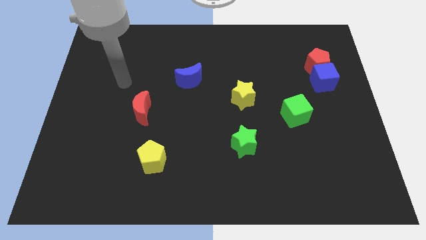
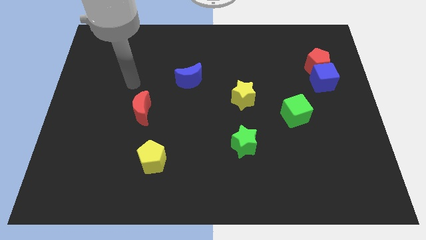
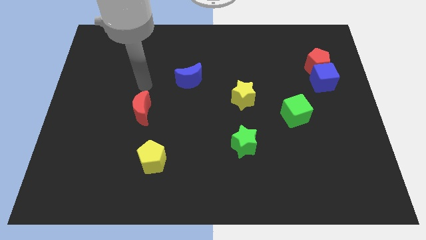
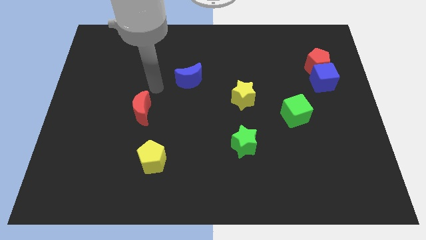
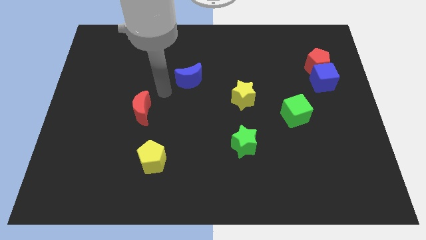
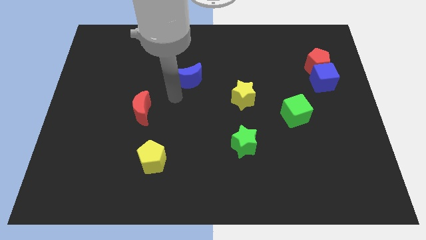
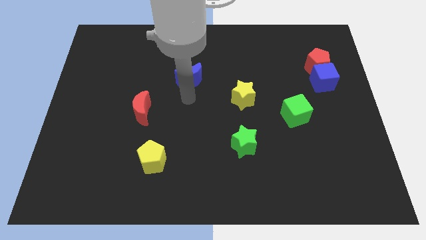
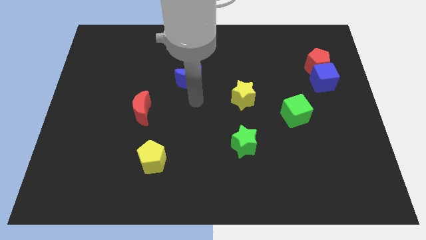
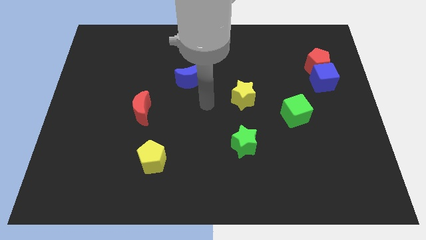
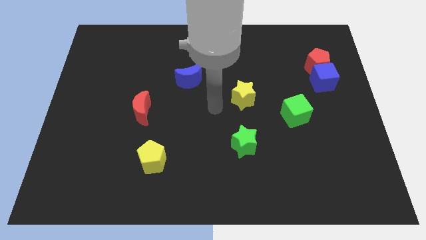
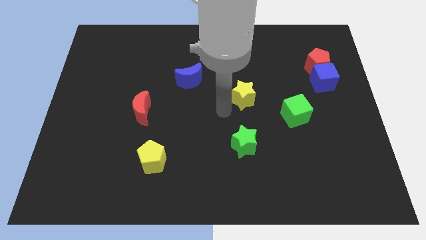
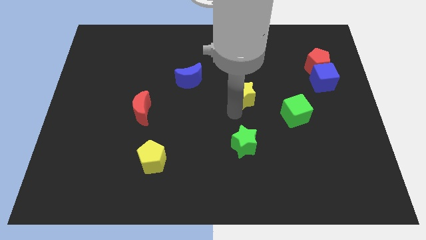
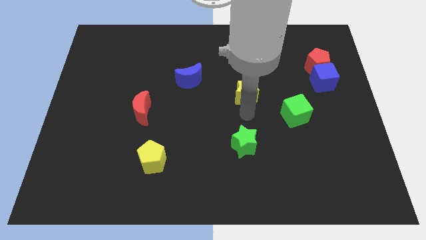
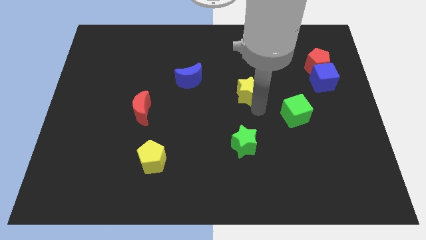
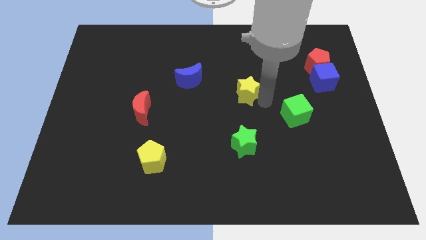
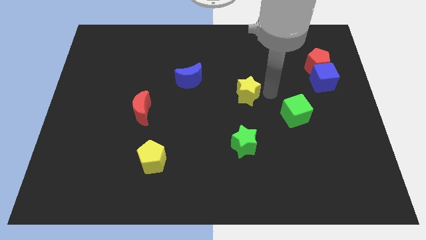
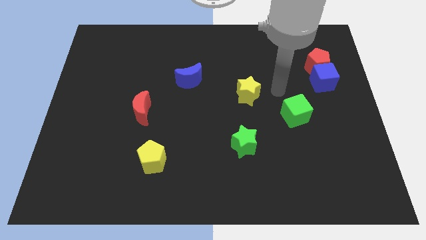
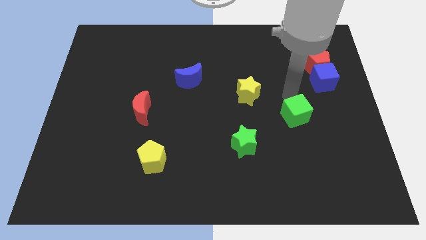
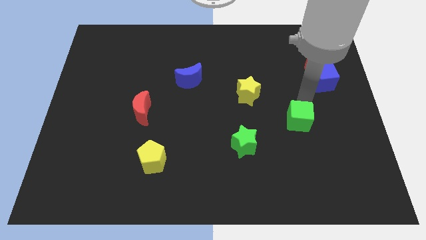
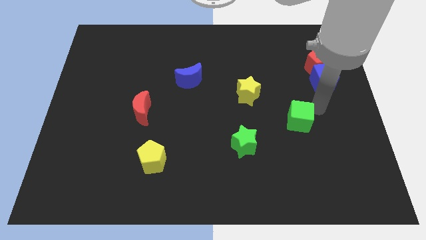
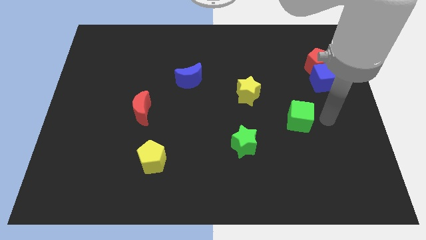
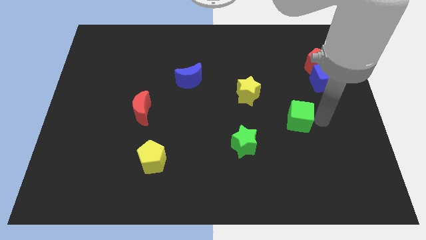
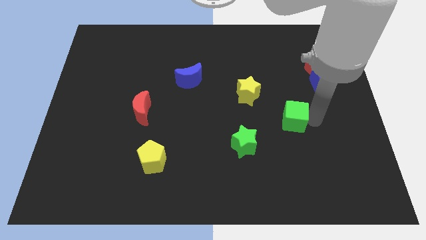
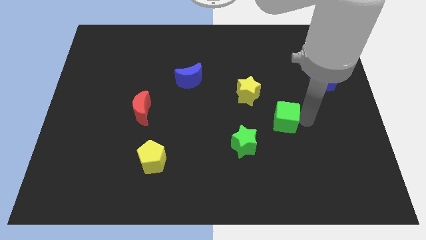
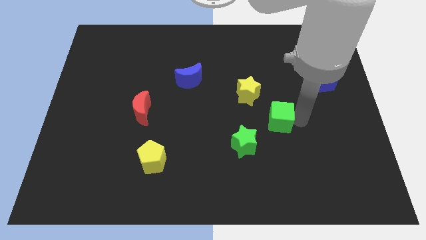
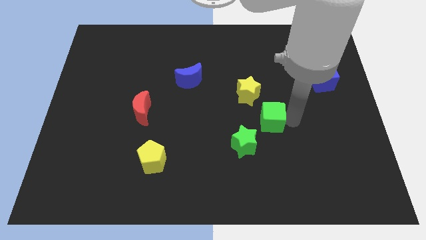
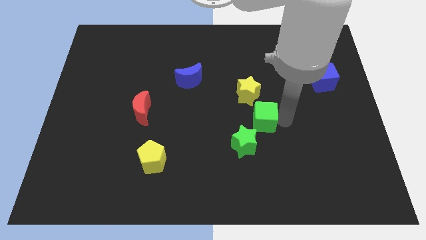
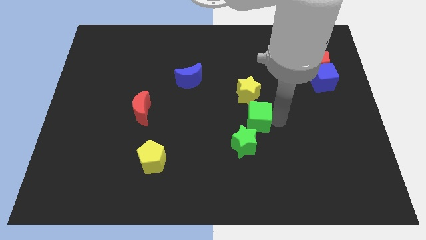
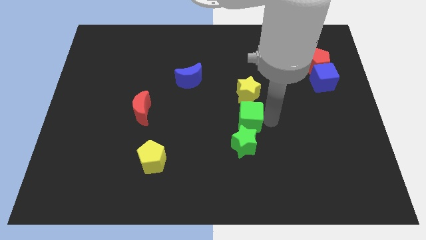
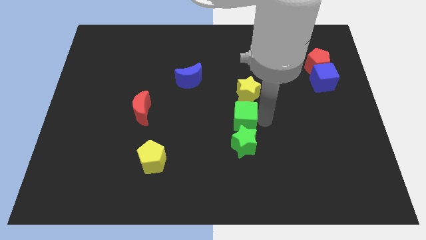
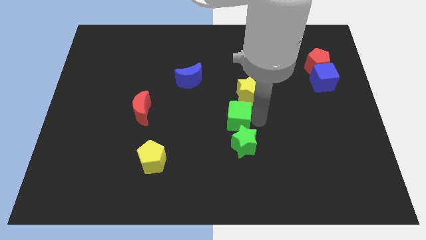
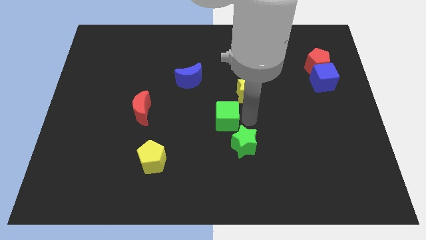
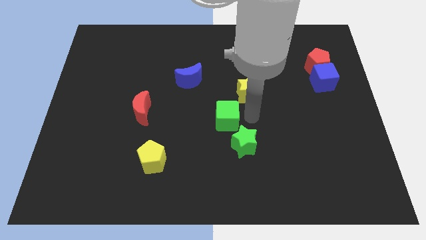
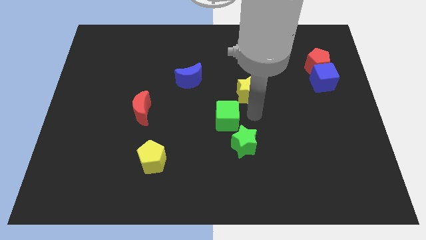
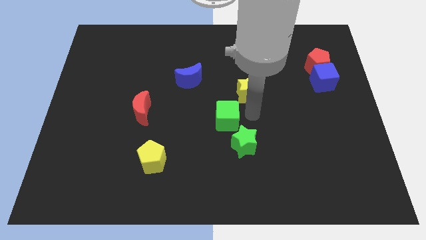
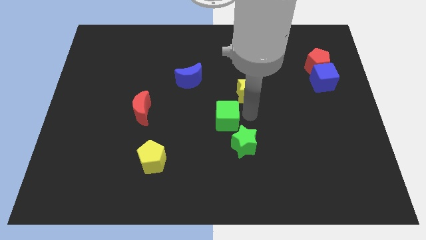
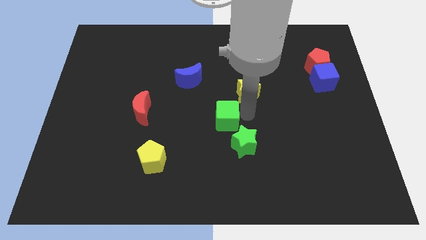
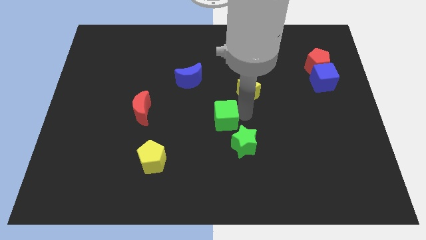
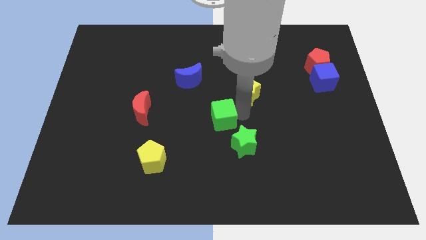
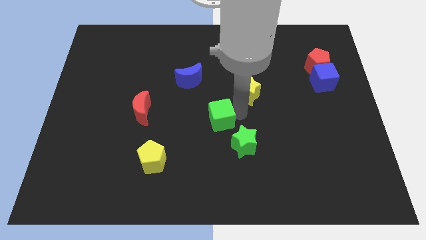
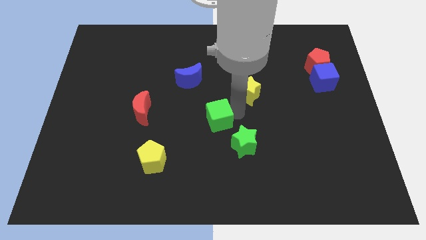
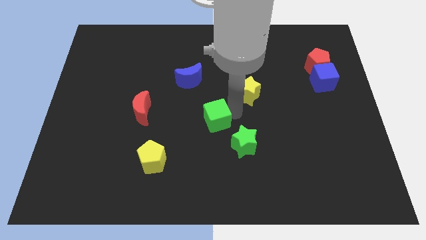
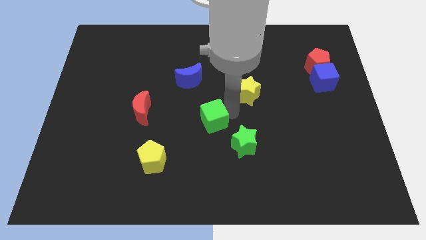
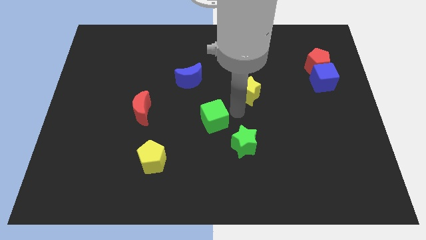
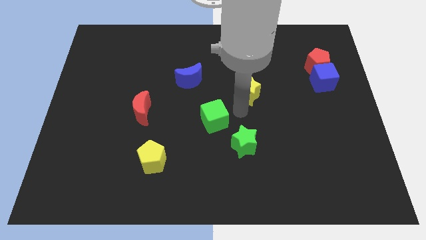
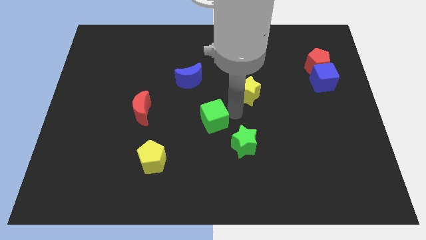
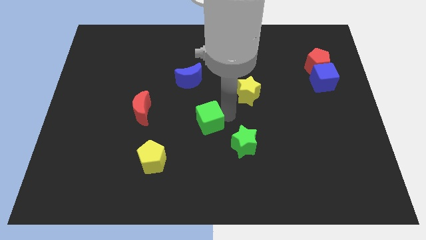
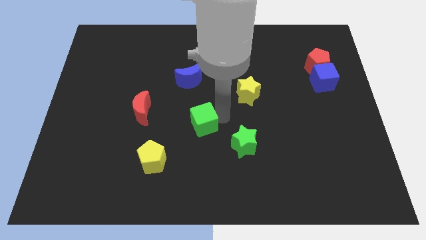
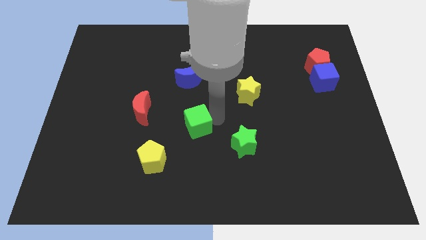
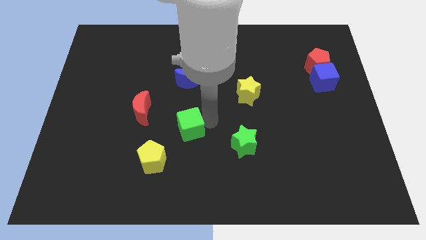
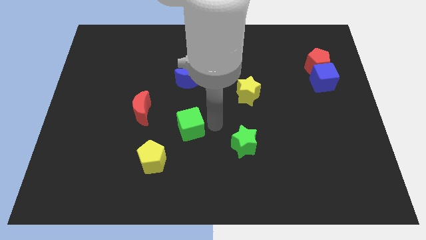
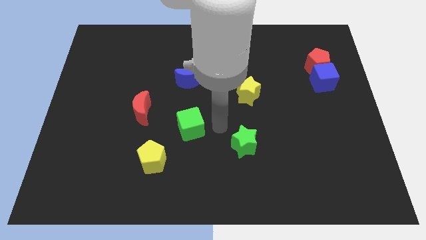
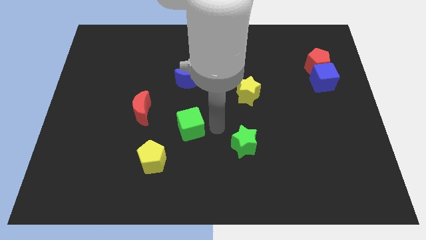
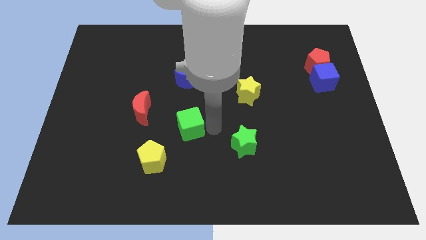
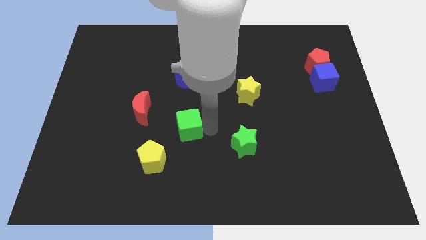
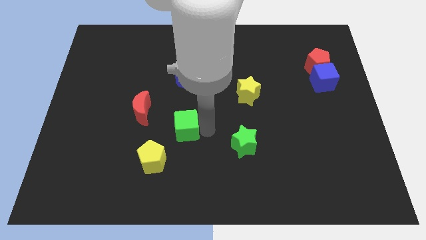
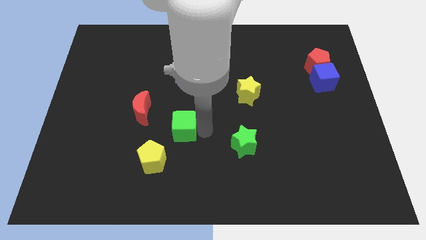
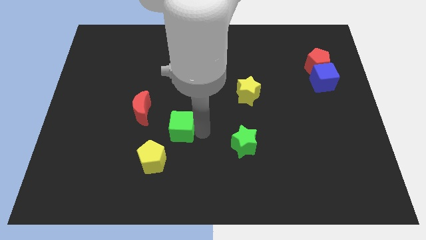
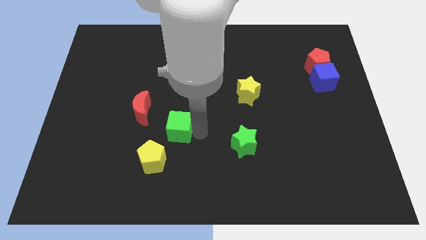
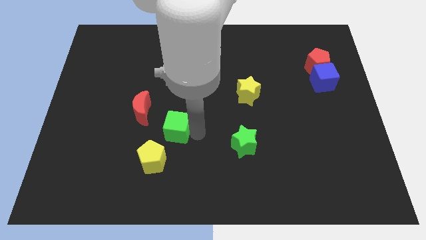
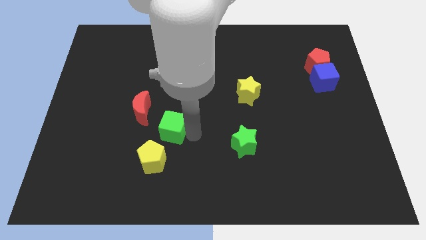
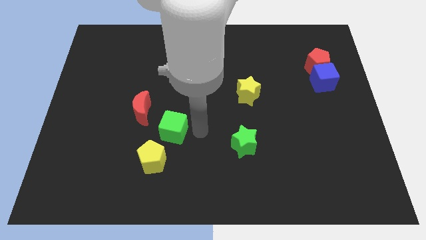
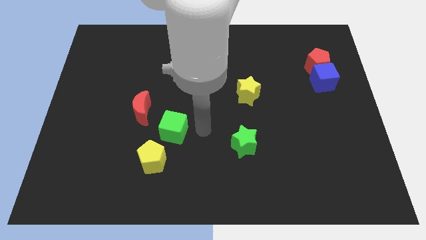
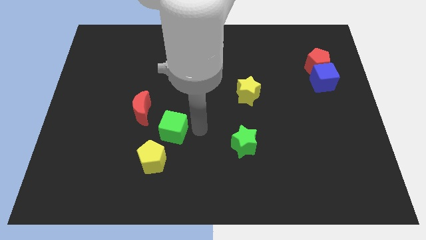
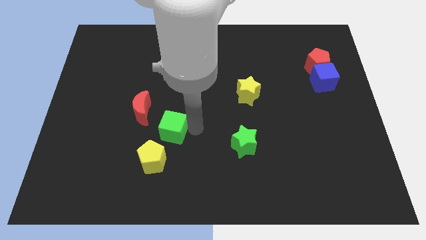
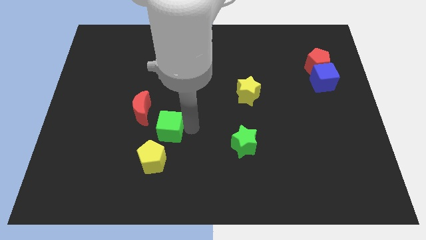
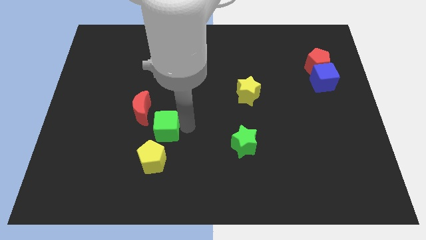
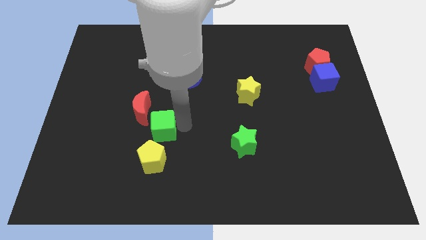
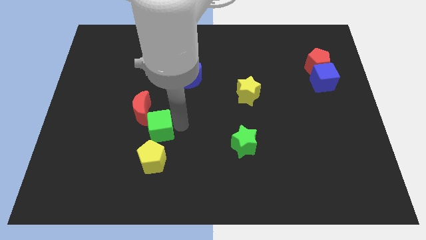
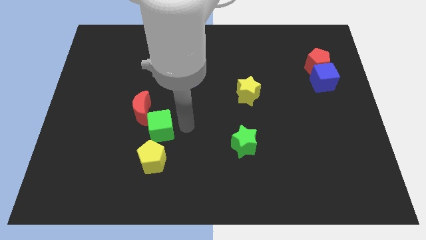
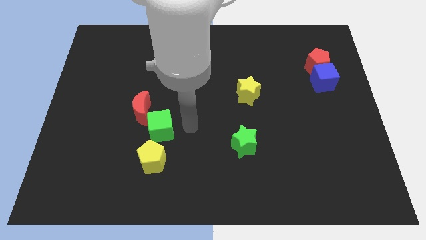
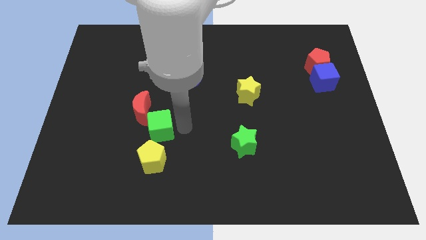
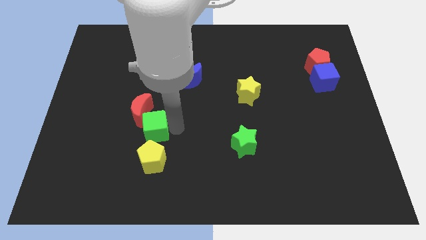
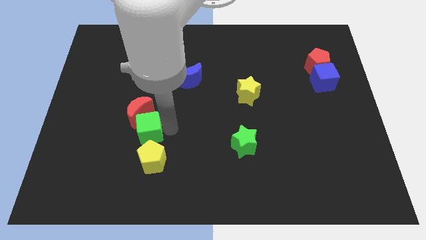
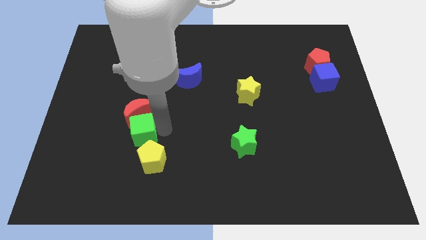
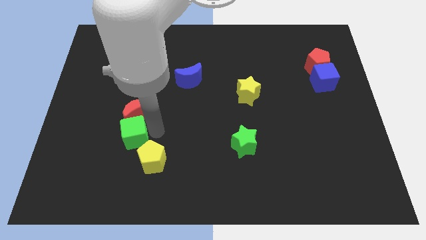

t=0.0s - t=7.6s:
push the green cube diagonally down and to the left of the red moon
